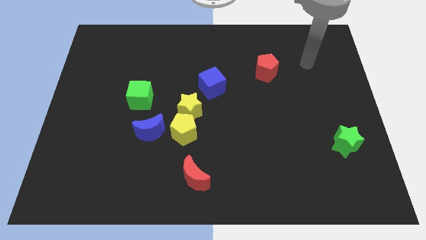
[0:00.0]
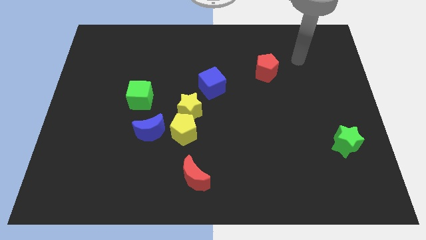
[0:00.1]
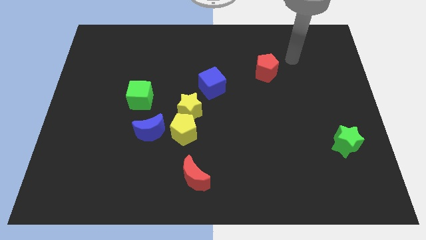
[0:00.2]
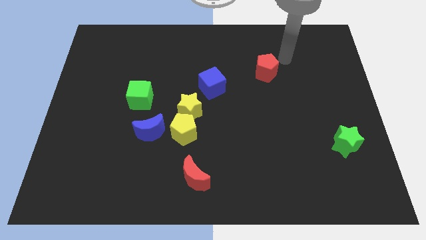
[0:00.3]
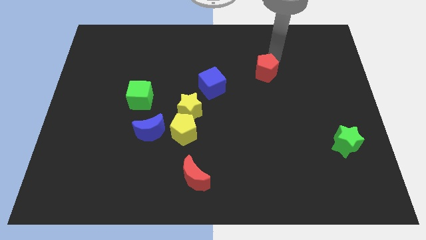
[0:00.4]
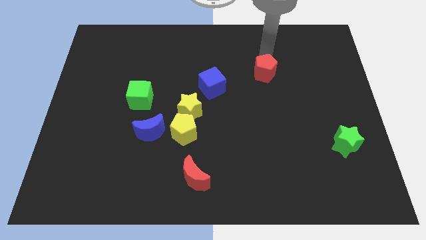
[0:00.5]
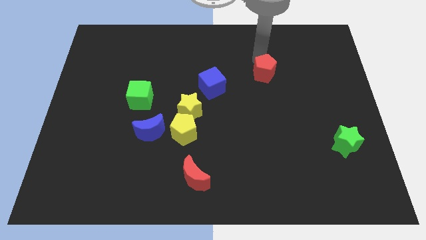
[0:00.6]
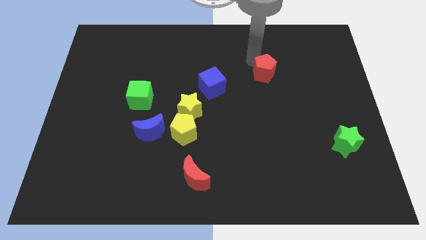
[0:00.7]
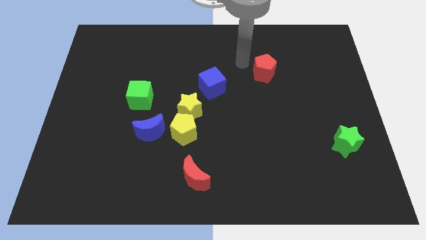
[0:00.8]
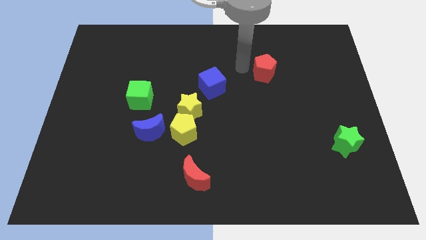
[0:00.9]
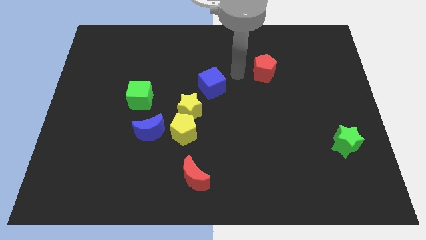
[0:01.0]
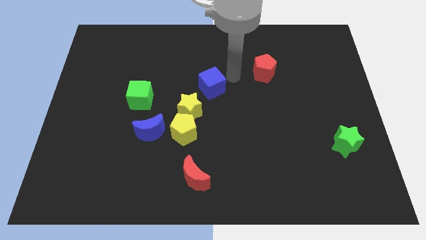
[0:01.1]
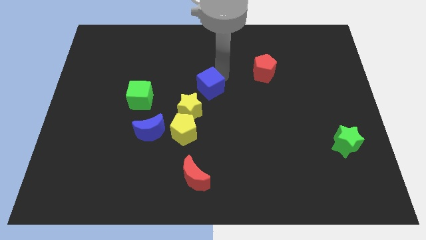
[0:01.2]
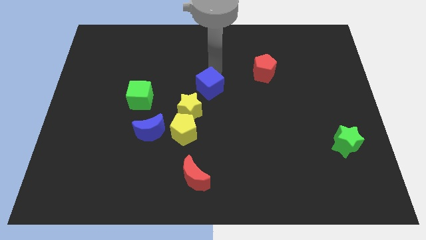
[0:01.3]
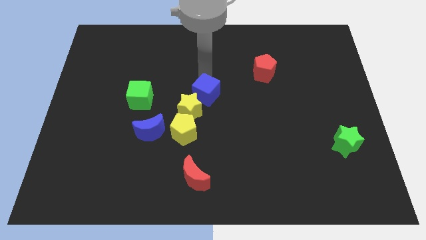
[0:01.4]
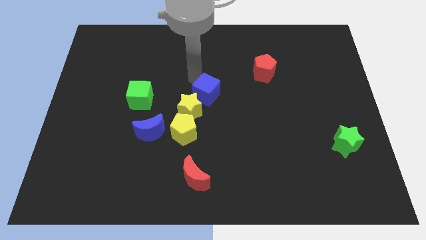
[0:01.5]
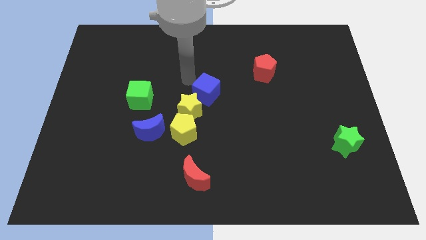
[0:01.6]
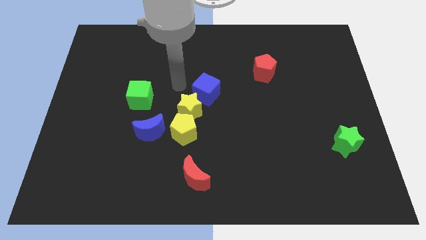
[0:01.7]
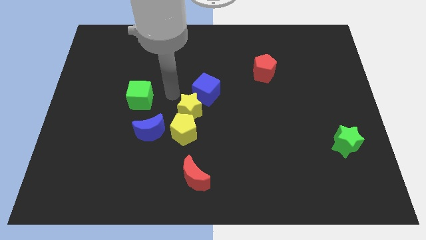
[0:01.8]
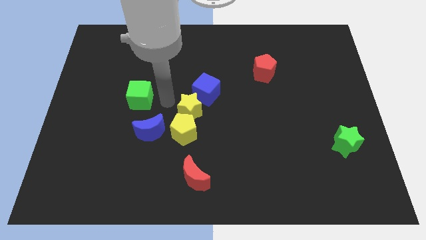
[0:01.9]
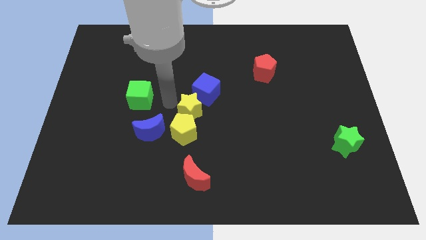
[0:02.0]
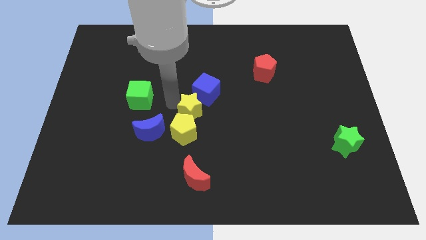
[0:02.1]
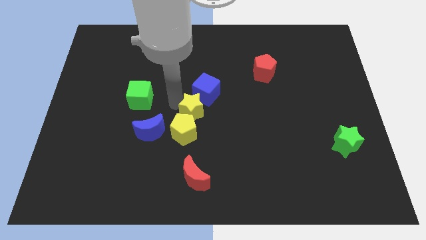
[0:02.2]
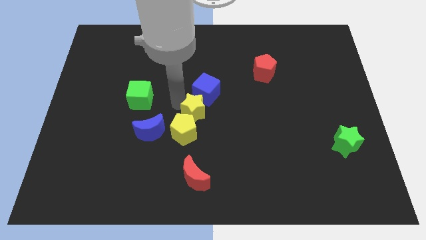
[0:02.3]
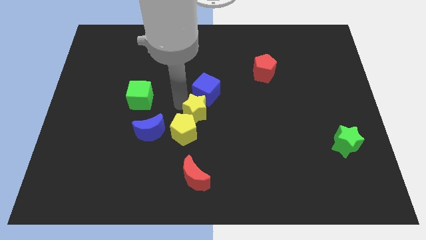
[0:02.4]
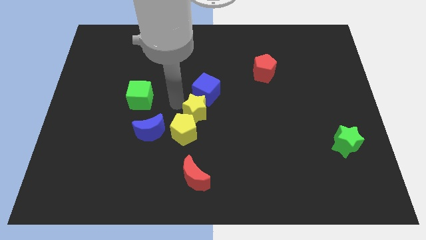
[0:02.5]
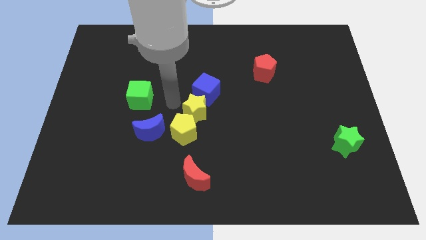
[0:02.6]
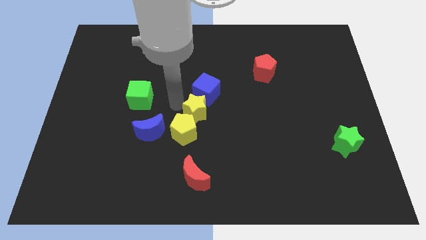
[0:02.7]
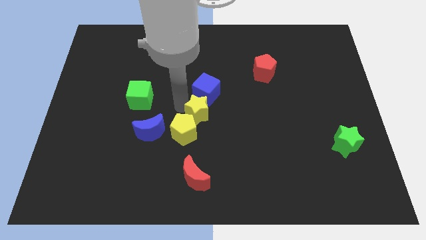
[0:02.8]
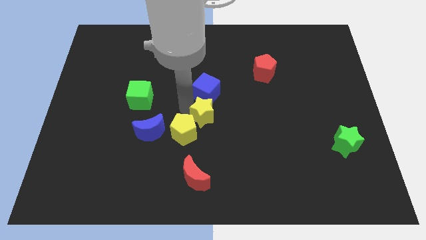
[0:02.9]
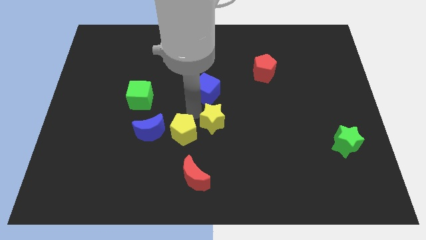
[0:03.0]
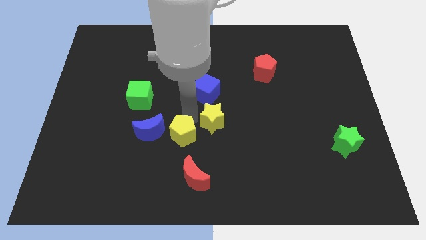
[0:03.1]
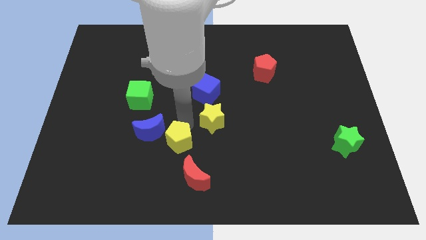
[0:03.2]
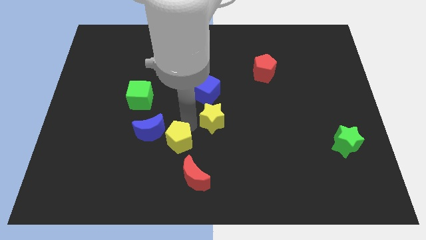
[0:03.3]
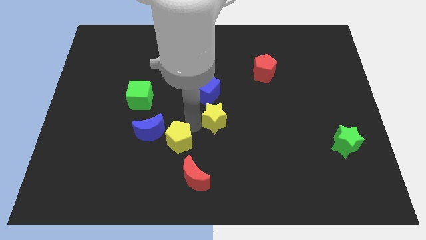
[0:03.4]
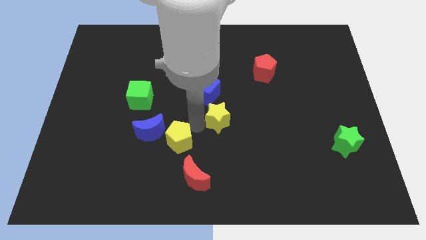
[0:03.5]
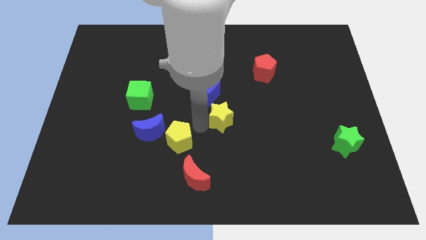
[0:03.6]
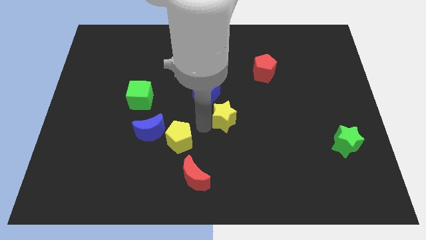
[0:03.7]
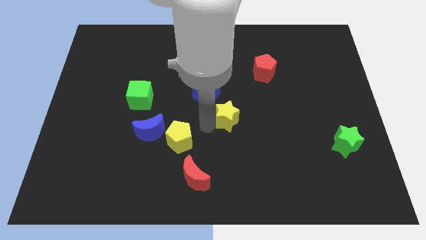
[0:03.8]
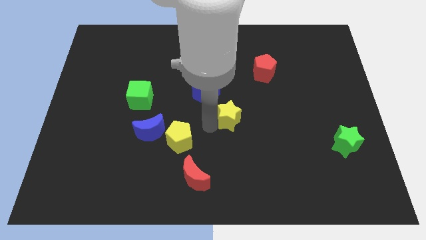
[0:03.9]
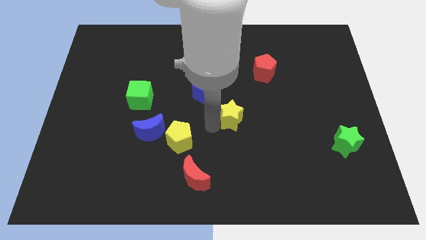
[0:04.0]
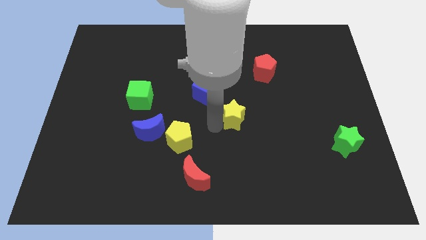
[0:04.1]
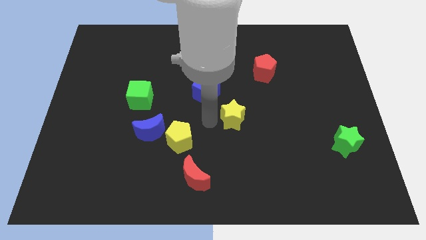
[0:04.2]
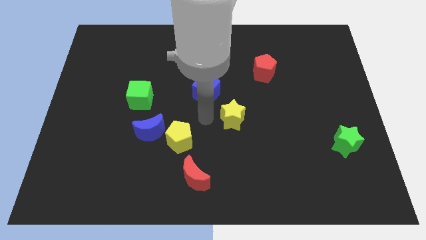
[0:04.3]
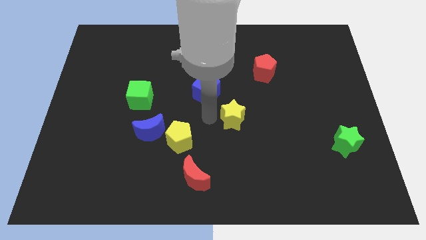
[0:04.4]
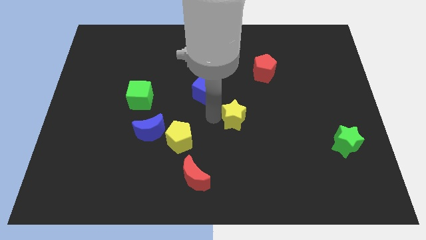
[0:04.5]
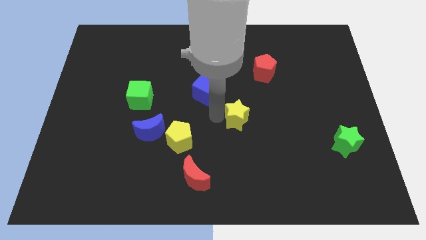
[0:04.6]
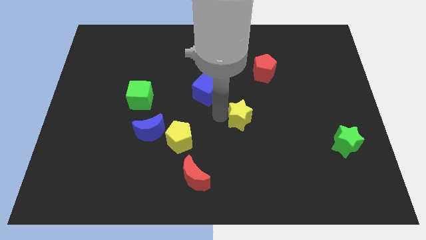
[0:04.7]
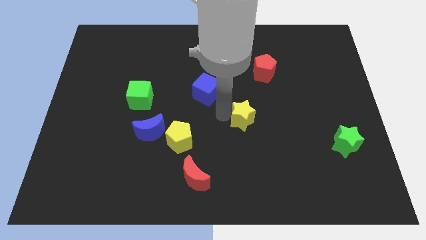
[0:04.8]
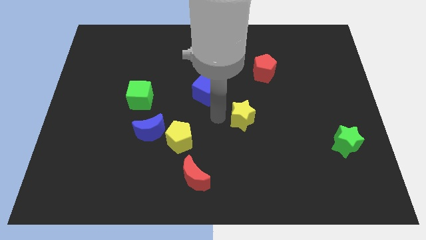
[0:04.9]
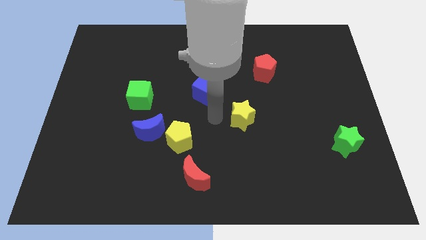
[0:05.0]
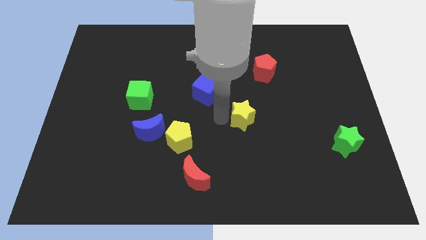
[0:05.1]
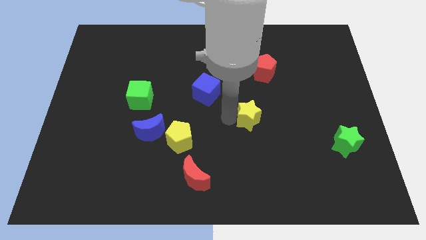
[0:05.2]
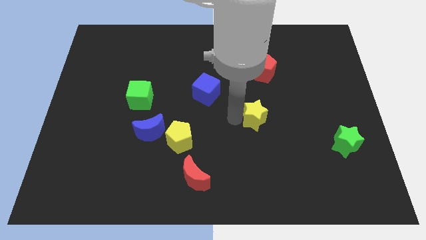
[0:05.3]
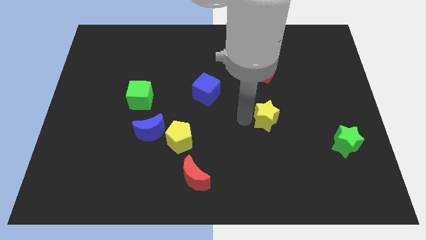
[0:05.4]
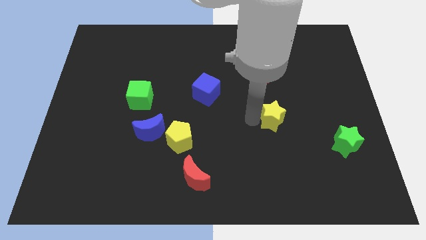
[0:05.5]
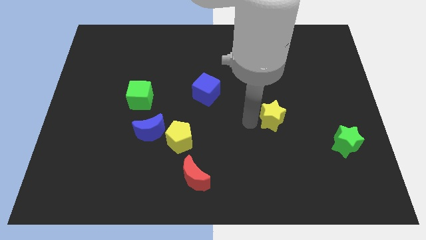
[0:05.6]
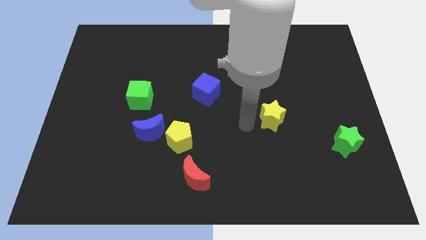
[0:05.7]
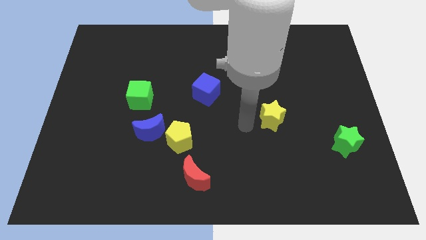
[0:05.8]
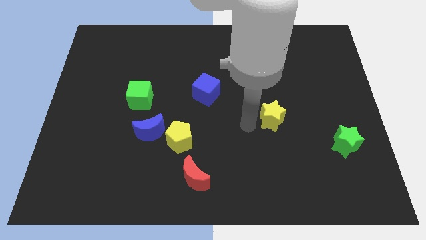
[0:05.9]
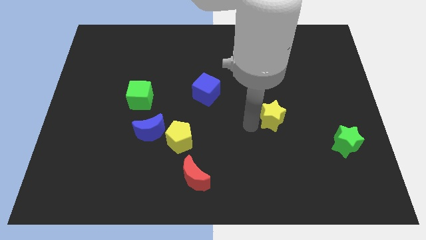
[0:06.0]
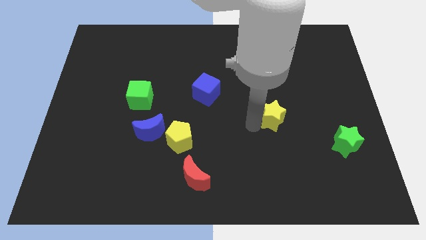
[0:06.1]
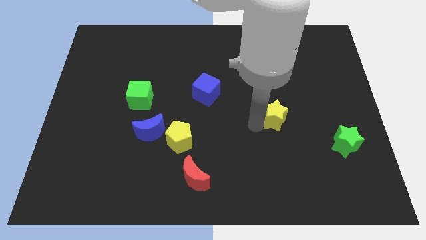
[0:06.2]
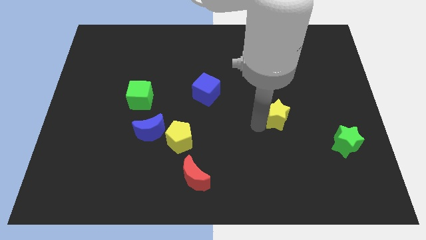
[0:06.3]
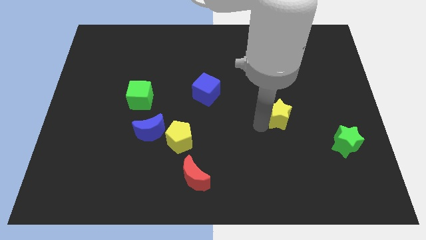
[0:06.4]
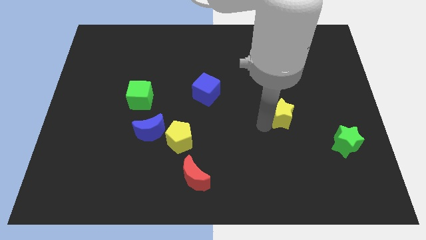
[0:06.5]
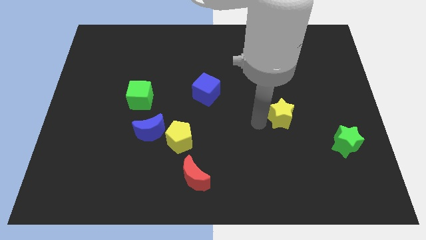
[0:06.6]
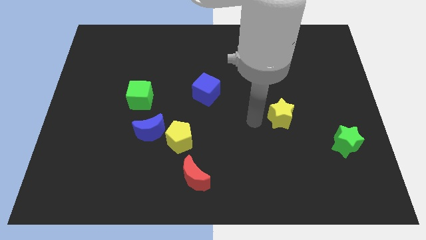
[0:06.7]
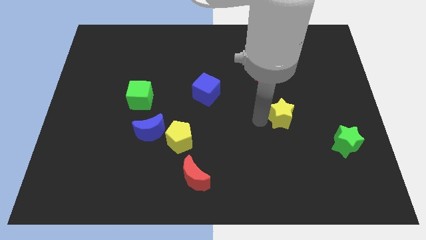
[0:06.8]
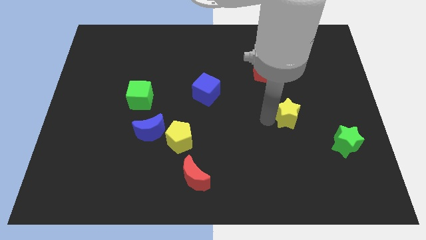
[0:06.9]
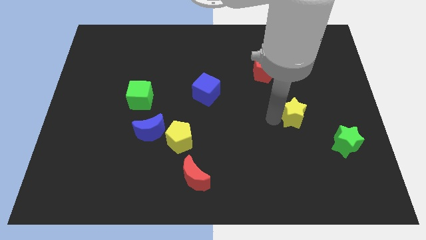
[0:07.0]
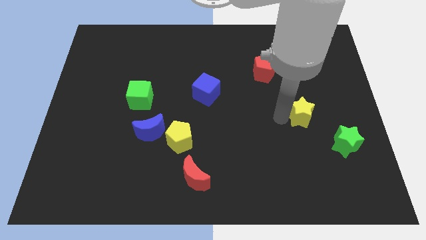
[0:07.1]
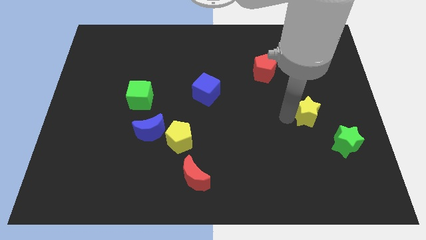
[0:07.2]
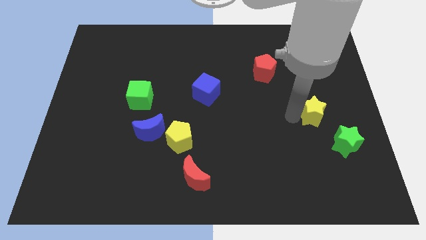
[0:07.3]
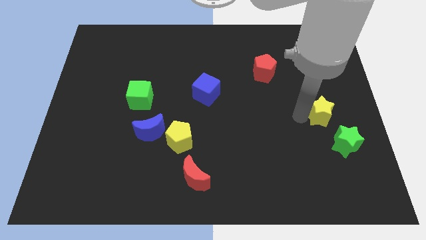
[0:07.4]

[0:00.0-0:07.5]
move the yellow star to the top of the green star
